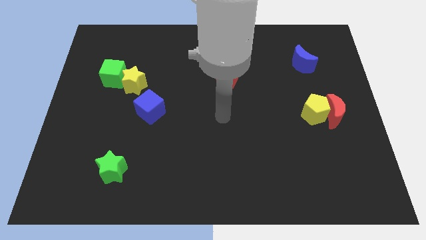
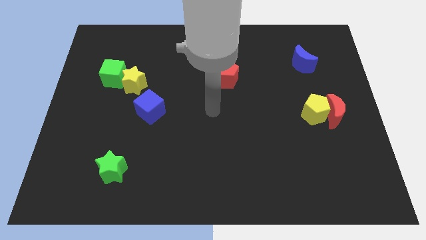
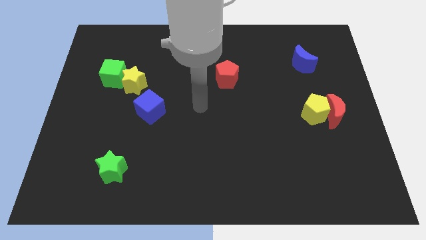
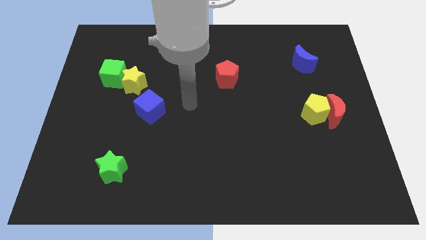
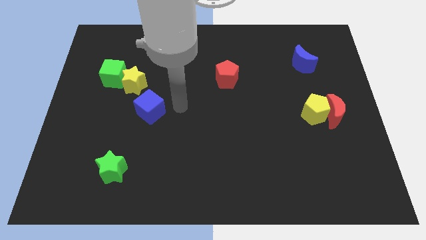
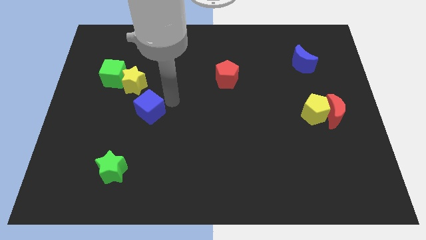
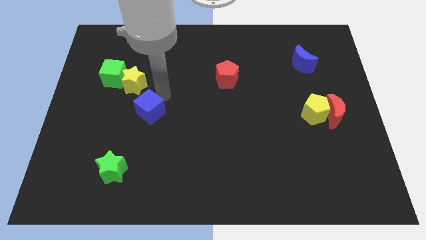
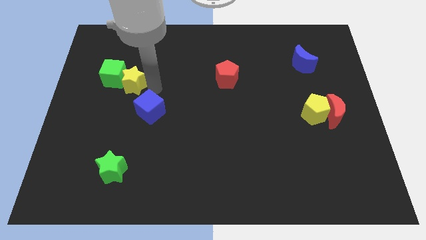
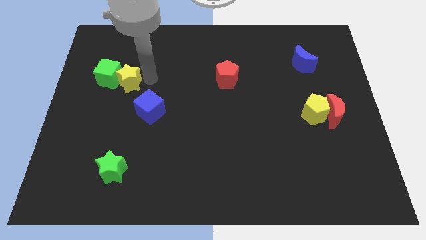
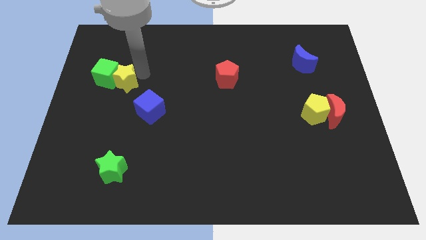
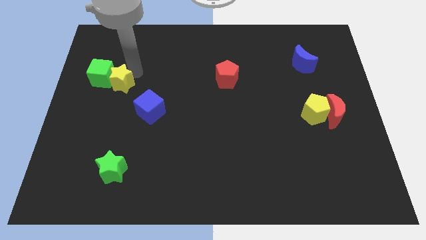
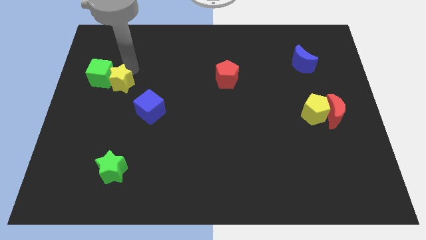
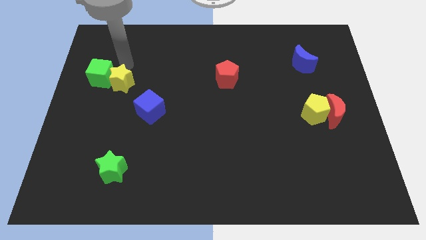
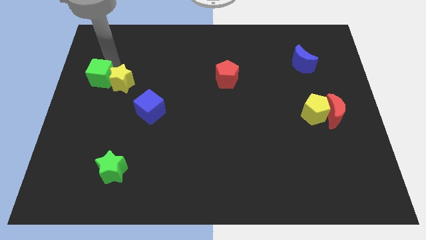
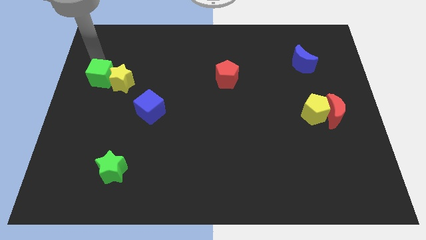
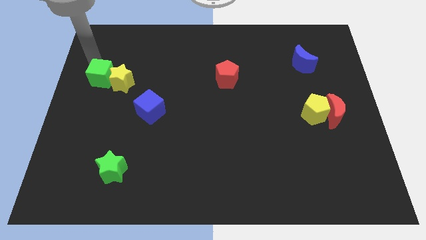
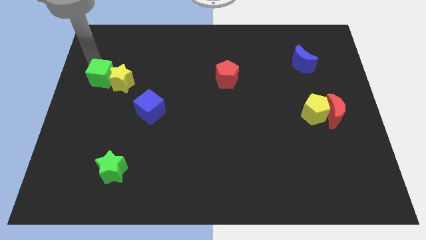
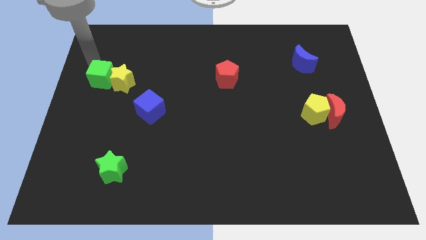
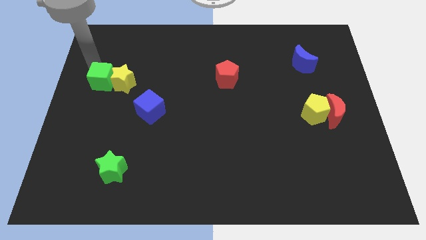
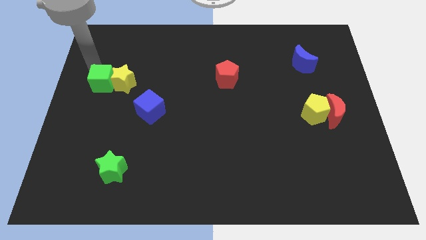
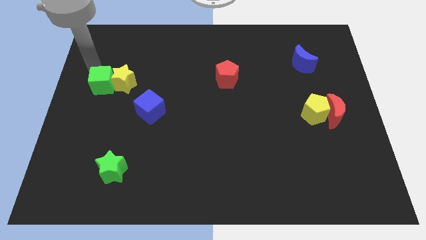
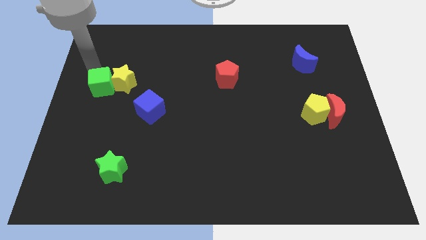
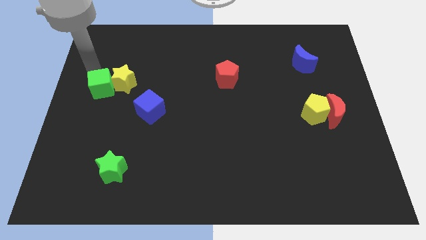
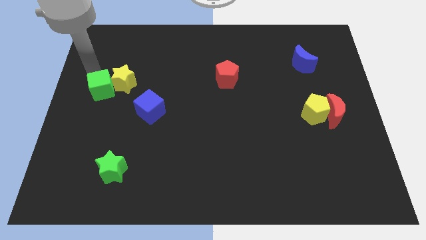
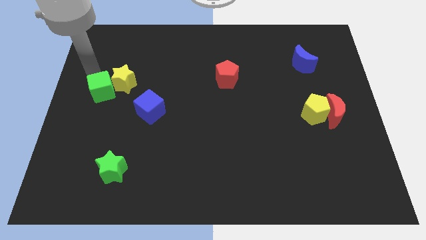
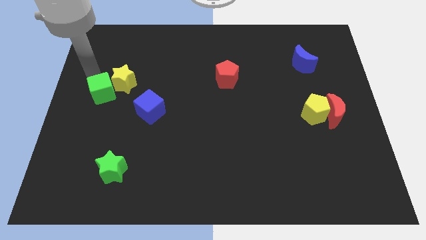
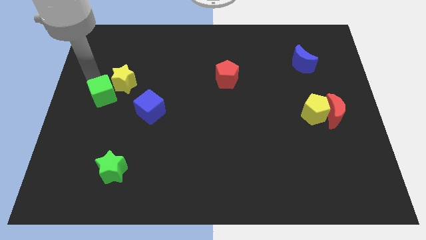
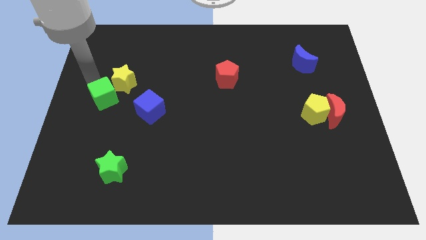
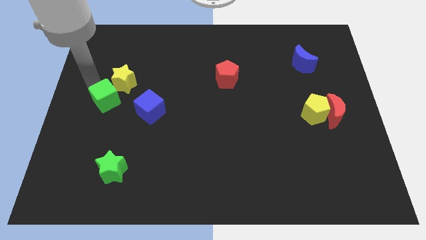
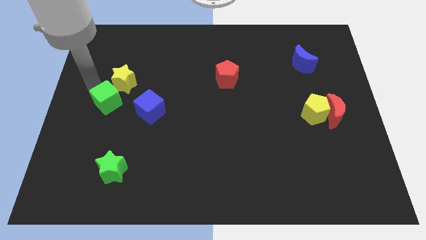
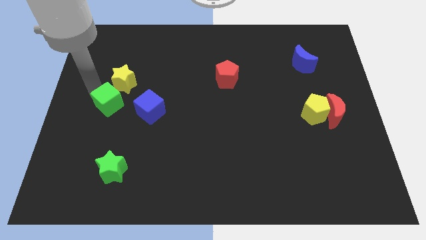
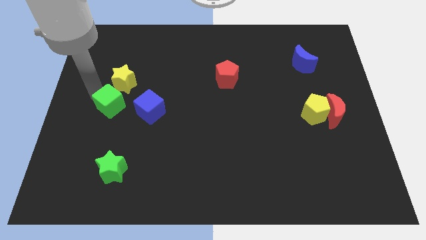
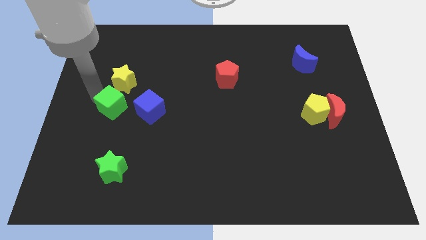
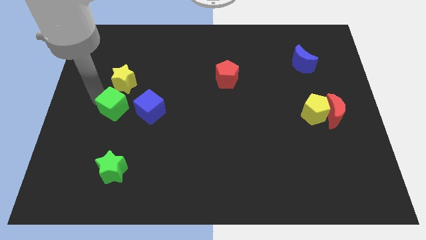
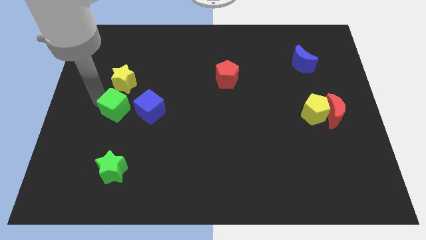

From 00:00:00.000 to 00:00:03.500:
slide the green cube a little bit diagonally downwards and right

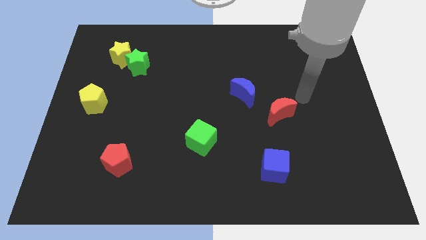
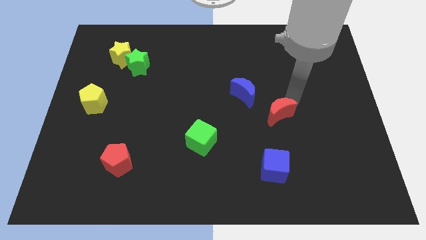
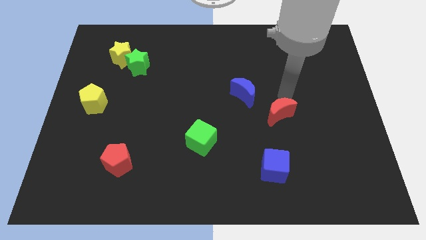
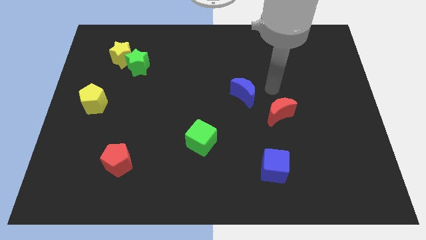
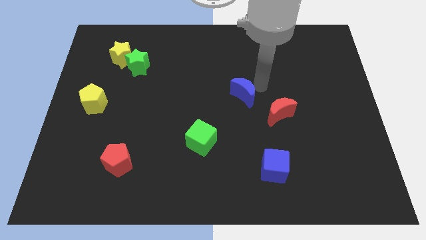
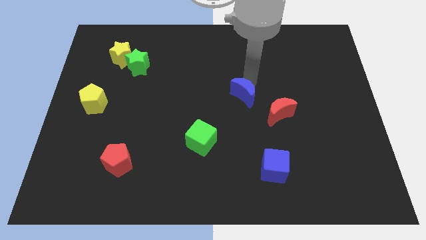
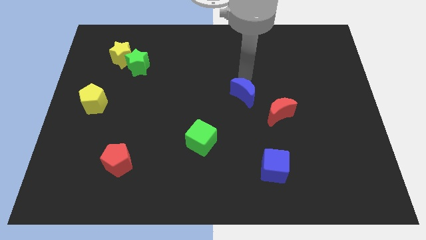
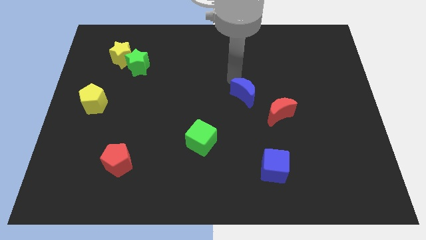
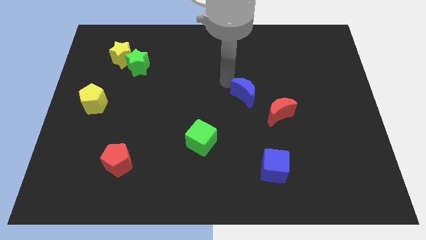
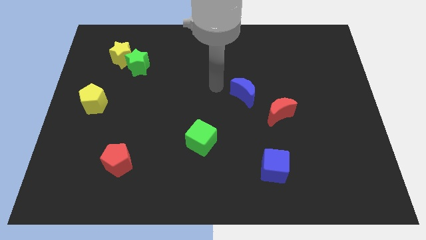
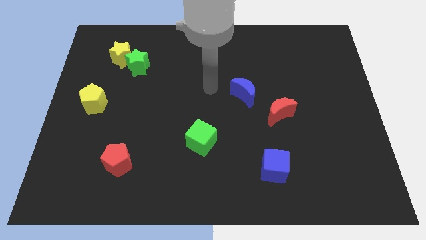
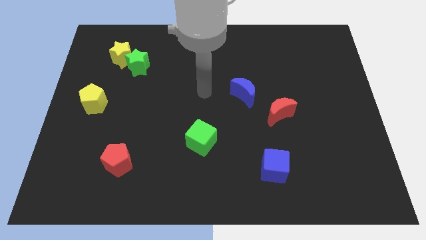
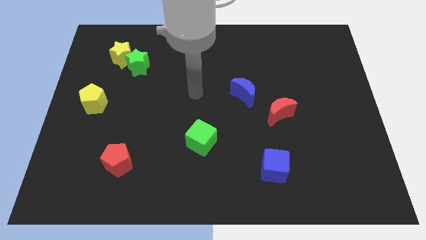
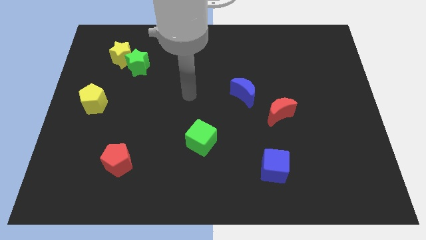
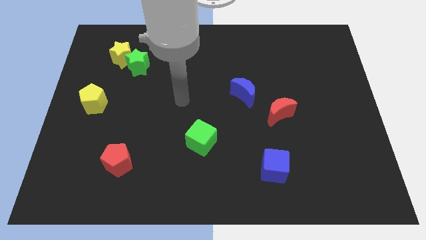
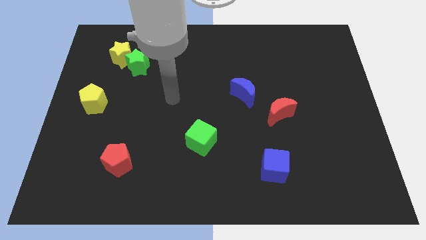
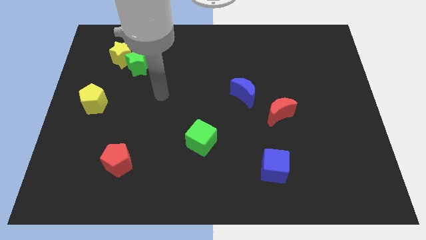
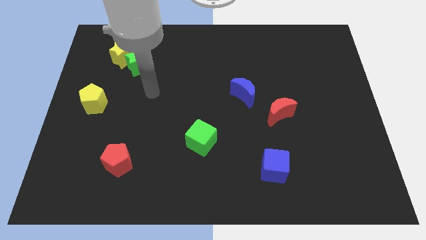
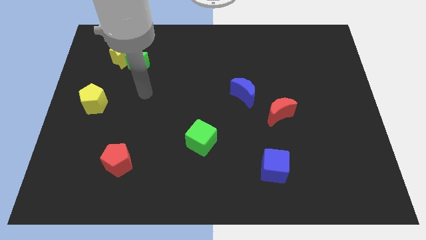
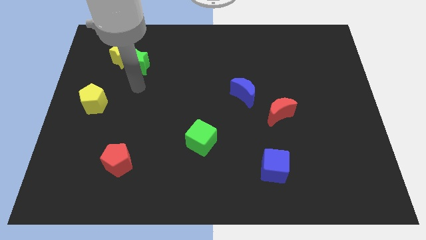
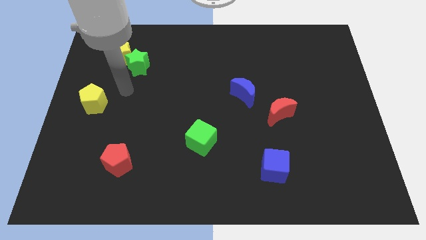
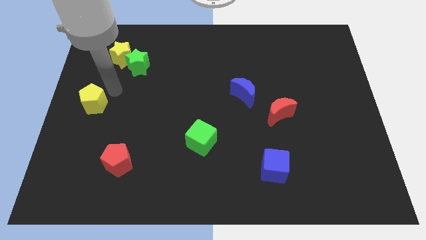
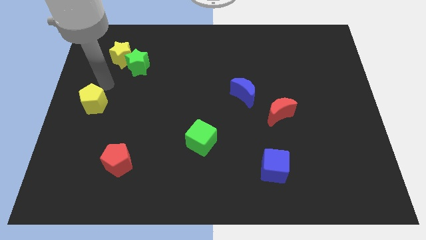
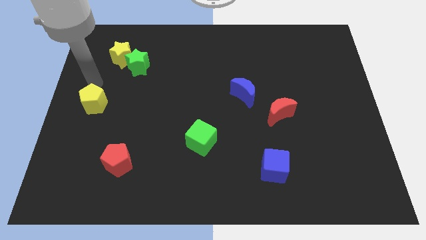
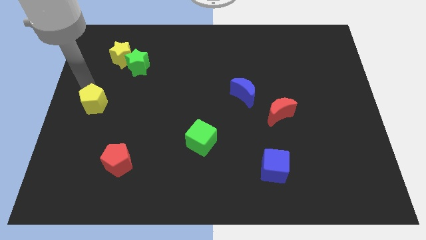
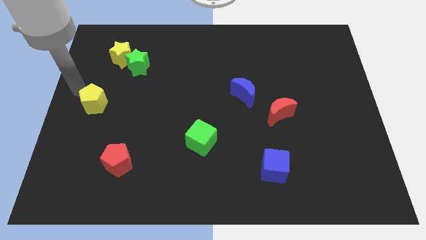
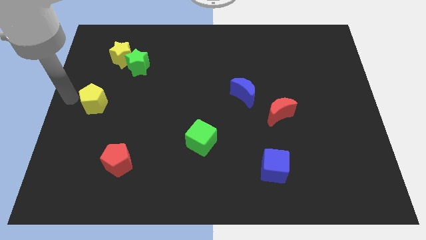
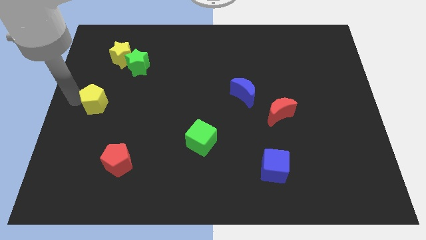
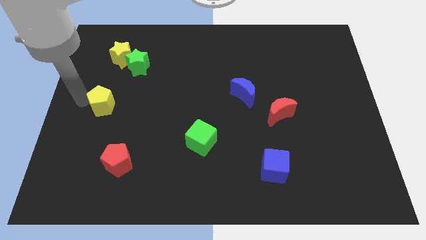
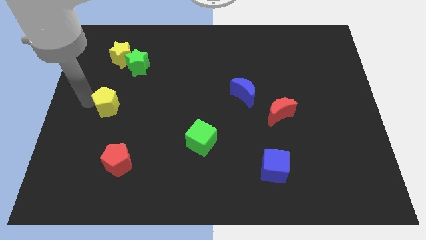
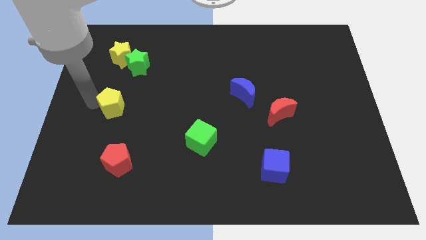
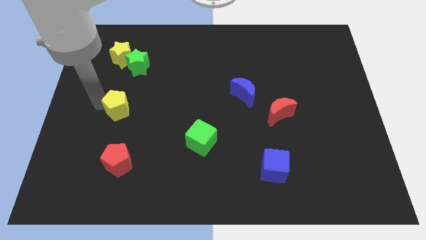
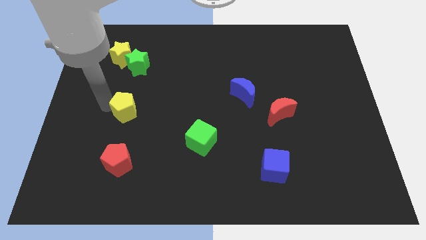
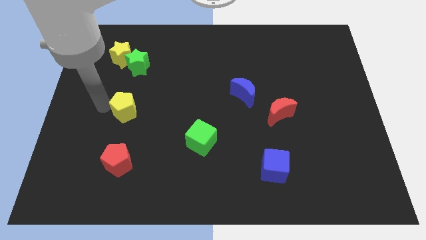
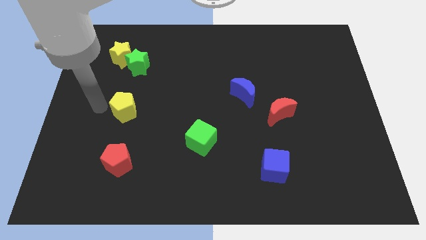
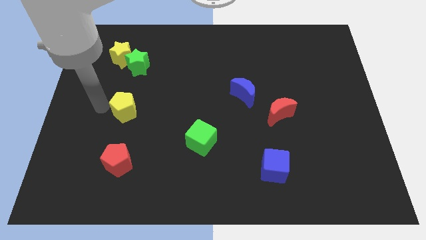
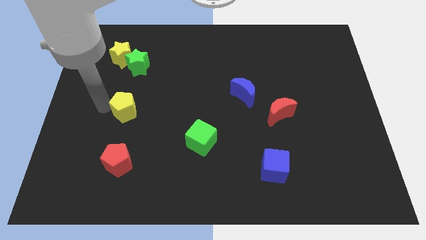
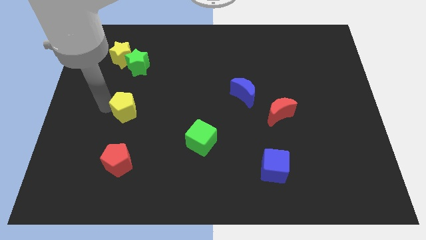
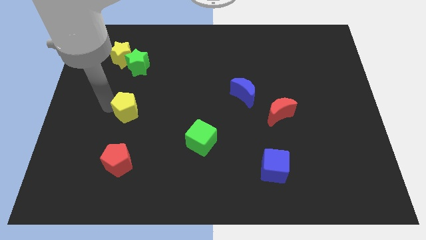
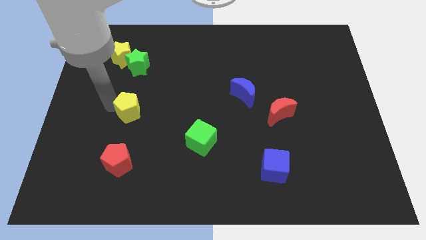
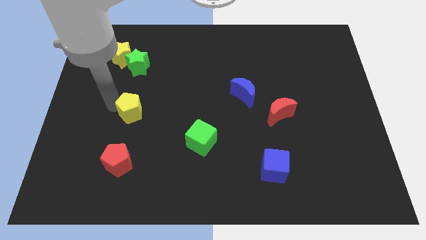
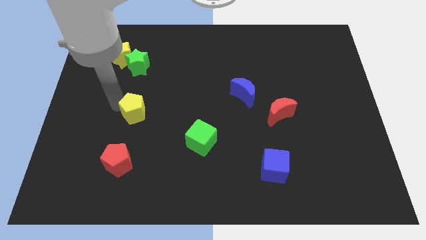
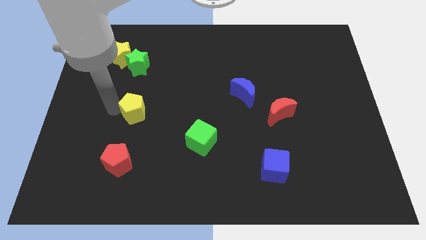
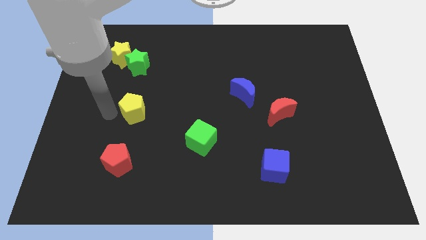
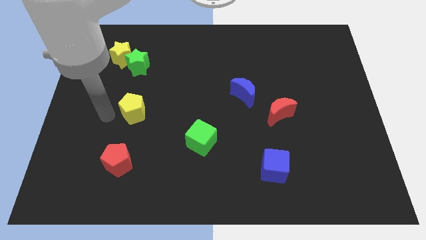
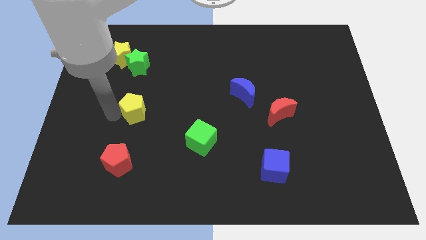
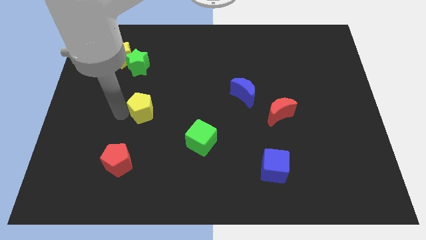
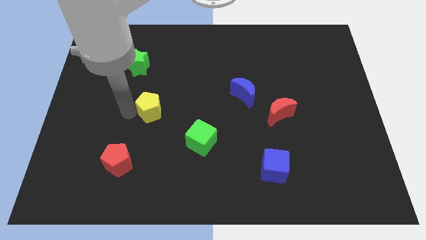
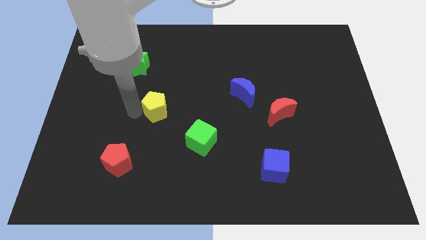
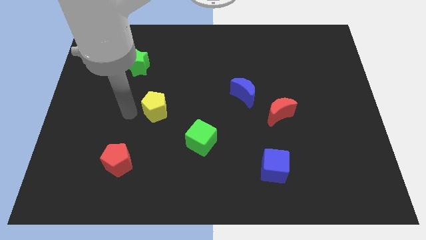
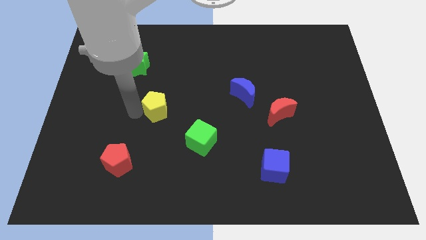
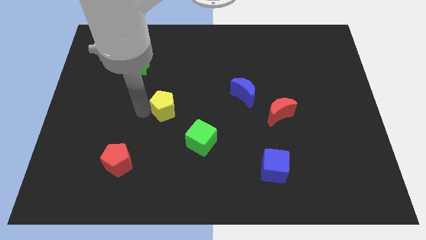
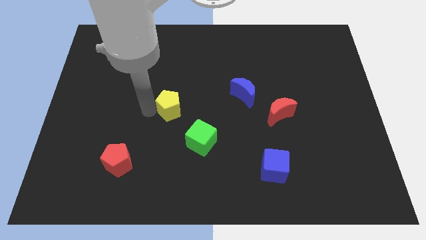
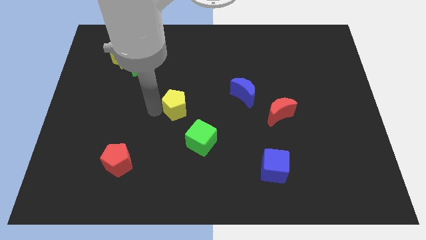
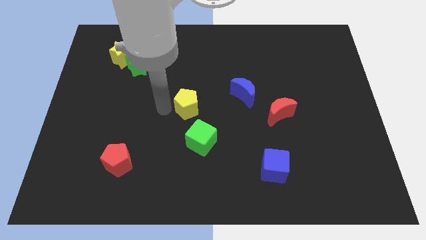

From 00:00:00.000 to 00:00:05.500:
move the yellow pentagon right
